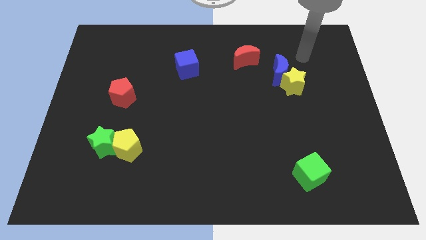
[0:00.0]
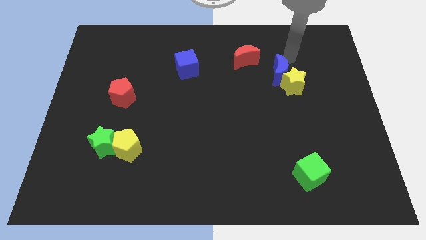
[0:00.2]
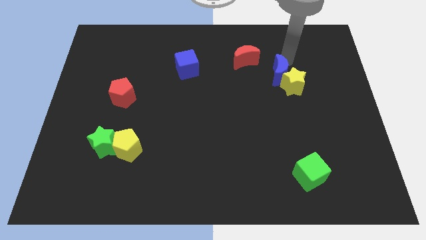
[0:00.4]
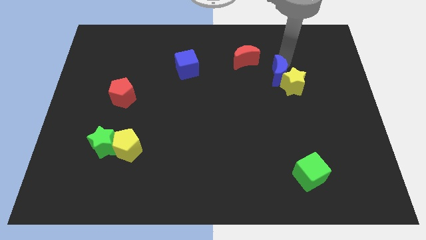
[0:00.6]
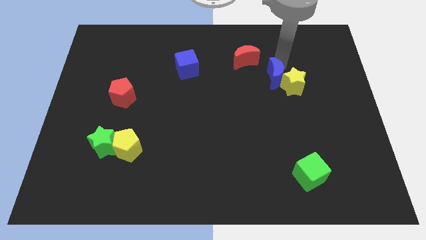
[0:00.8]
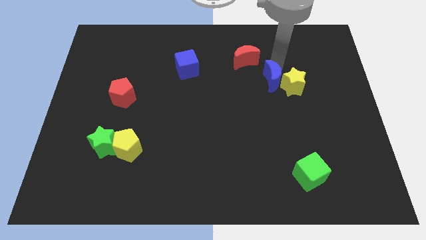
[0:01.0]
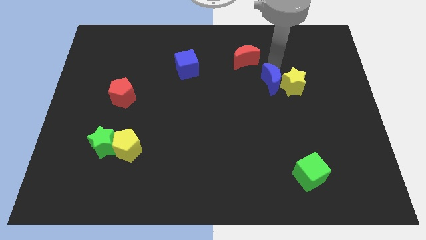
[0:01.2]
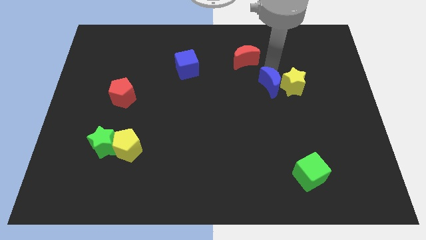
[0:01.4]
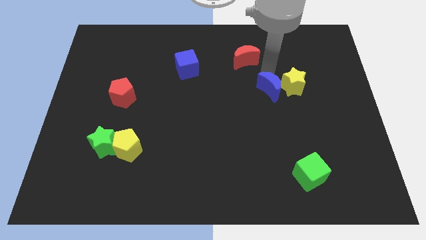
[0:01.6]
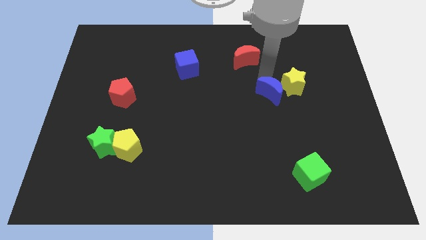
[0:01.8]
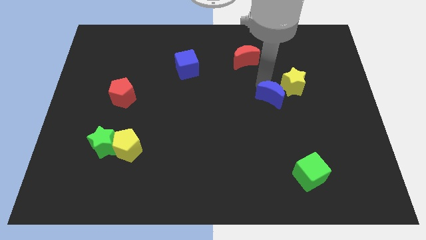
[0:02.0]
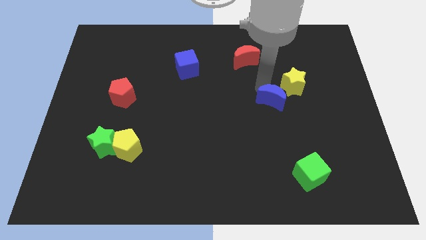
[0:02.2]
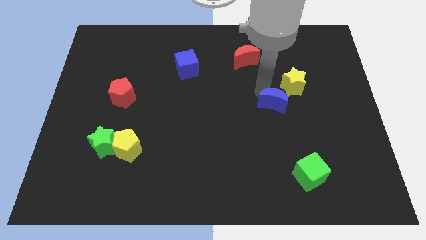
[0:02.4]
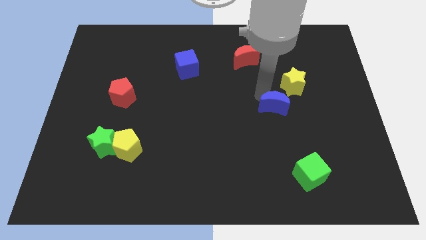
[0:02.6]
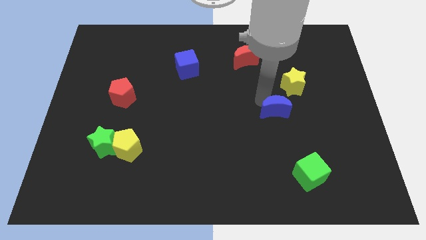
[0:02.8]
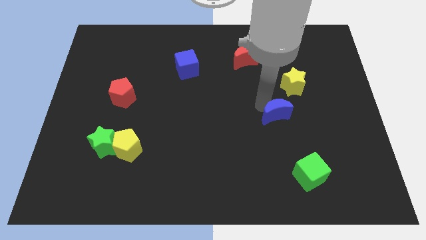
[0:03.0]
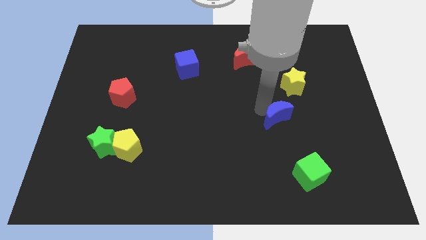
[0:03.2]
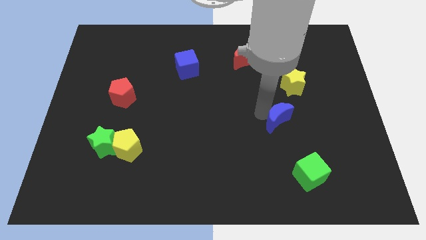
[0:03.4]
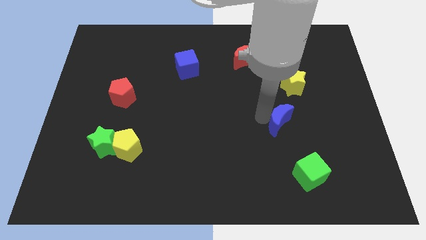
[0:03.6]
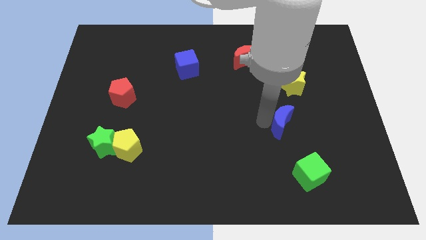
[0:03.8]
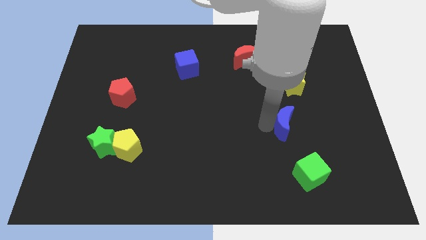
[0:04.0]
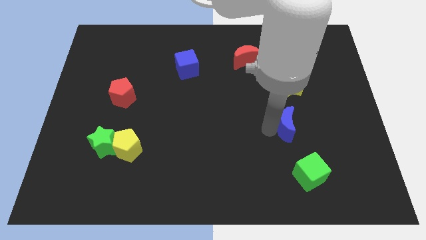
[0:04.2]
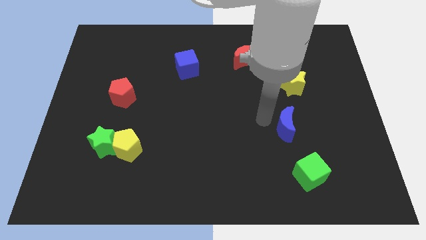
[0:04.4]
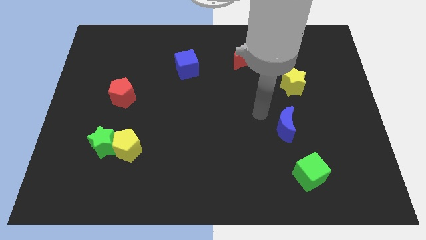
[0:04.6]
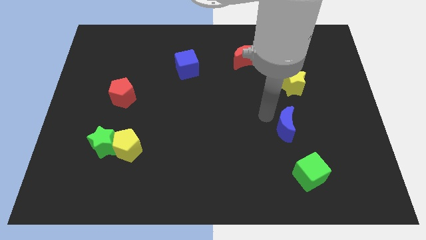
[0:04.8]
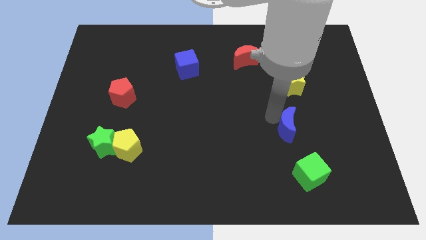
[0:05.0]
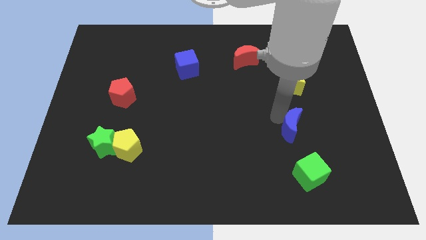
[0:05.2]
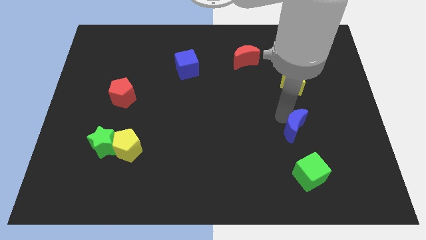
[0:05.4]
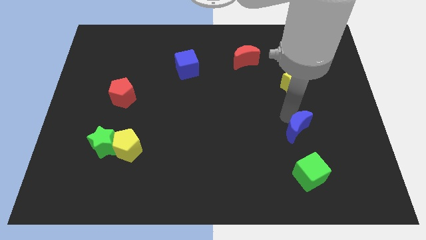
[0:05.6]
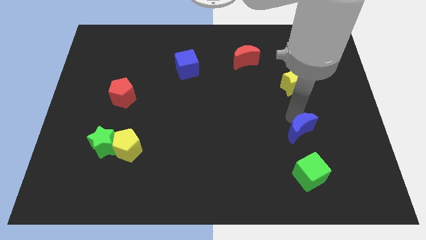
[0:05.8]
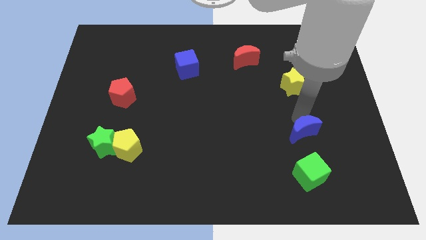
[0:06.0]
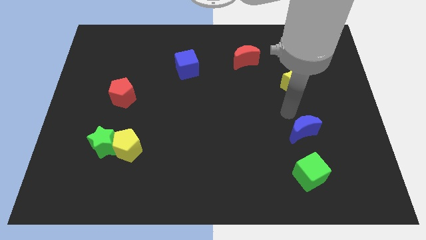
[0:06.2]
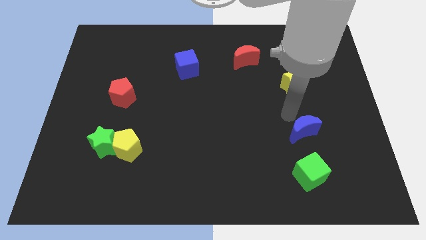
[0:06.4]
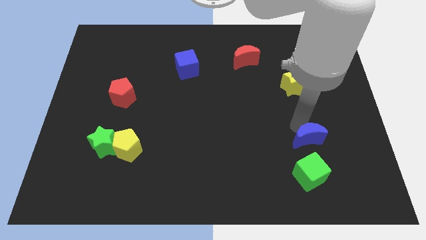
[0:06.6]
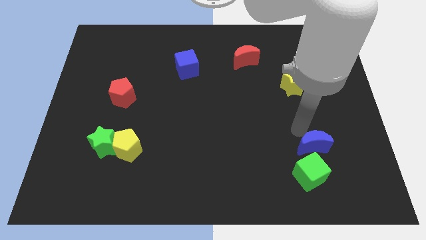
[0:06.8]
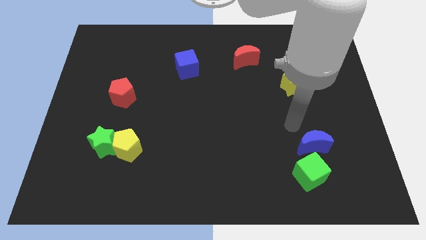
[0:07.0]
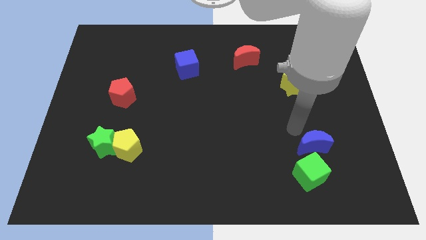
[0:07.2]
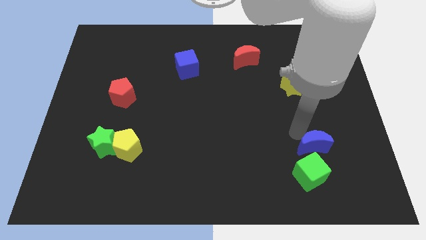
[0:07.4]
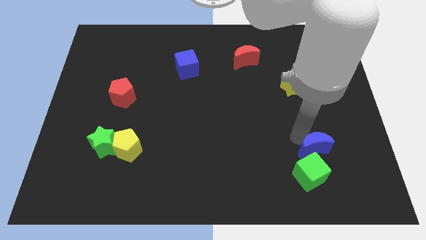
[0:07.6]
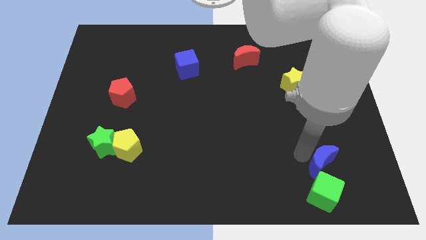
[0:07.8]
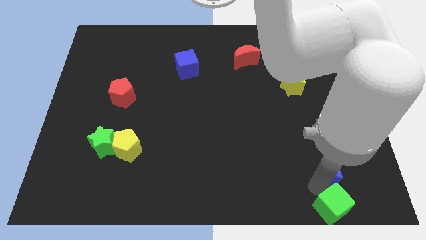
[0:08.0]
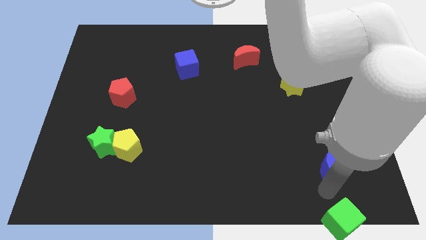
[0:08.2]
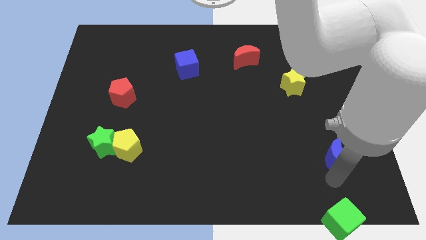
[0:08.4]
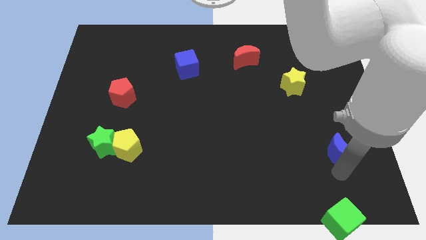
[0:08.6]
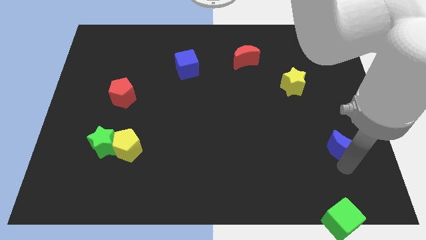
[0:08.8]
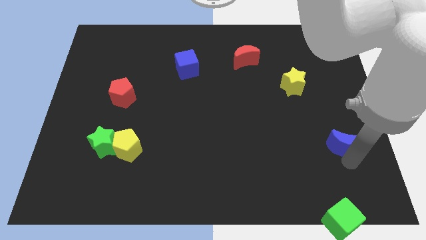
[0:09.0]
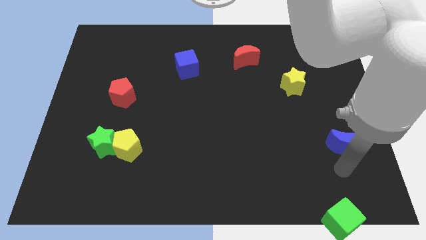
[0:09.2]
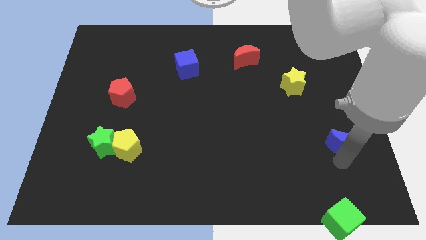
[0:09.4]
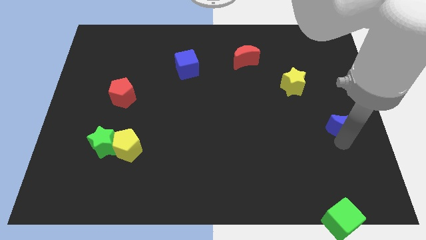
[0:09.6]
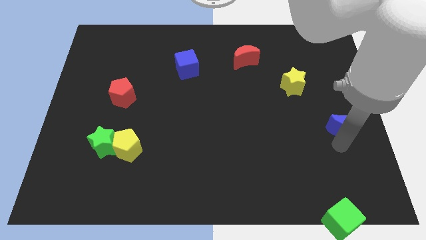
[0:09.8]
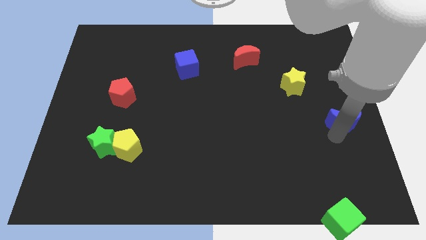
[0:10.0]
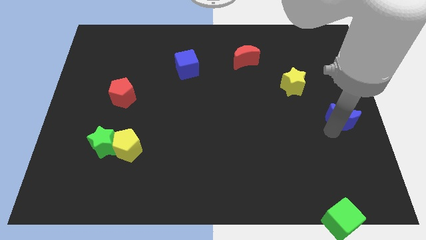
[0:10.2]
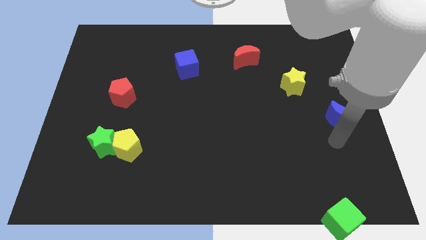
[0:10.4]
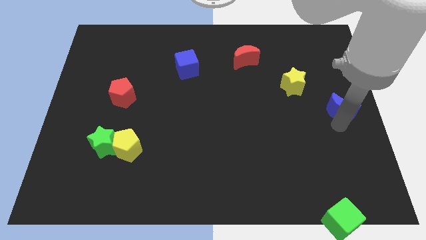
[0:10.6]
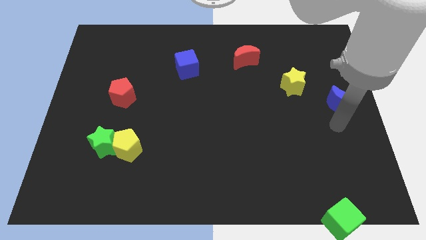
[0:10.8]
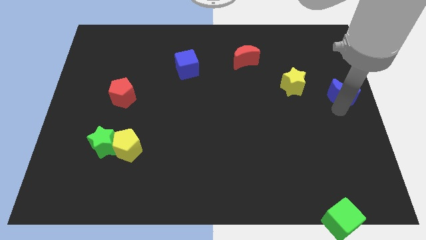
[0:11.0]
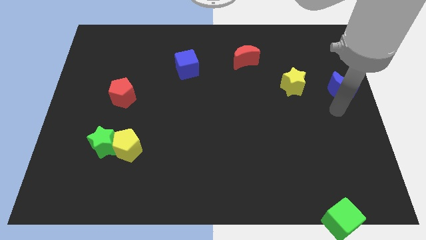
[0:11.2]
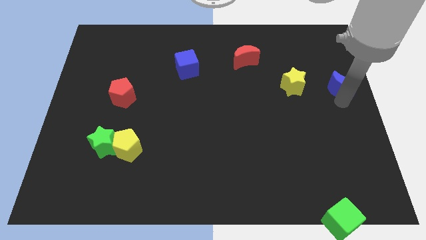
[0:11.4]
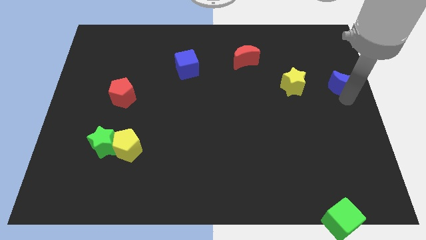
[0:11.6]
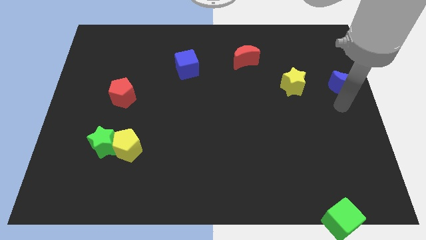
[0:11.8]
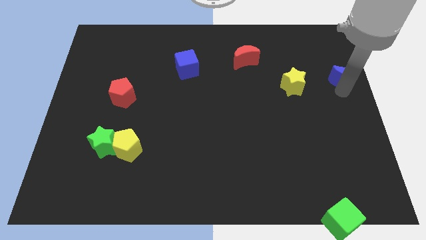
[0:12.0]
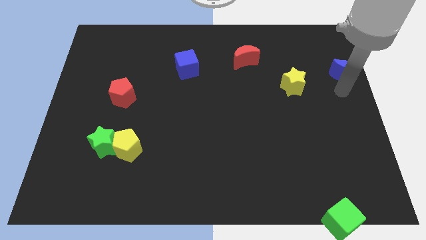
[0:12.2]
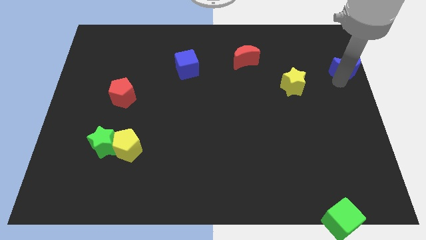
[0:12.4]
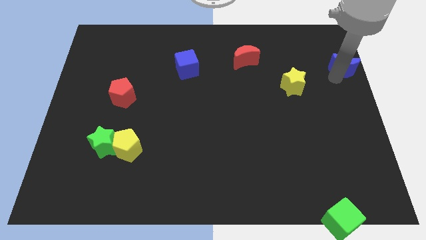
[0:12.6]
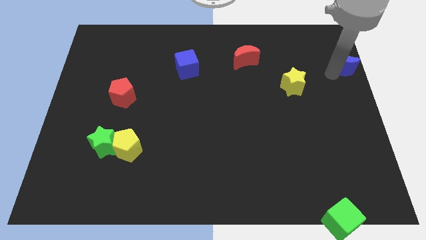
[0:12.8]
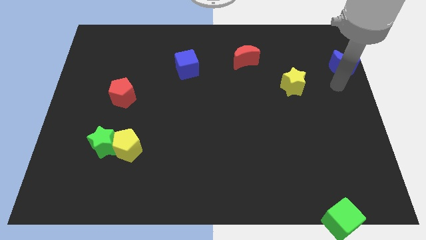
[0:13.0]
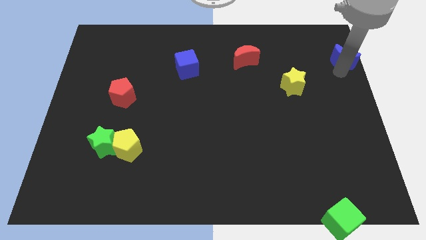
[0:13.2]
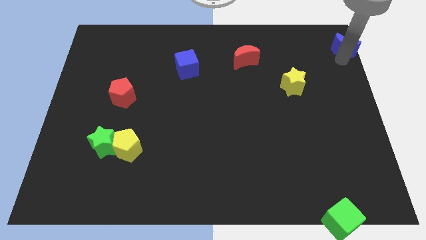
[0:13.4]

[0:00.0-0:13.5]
move the blue moon to the top right

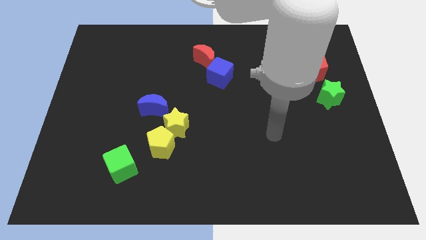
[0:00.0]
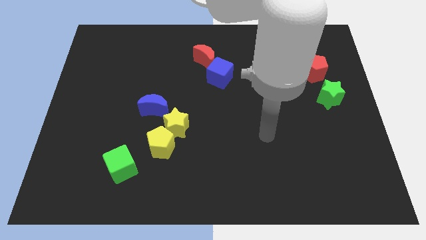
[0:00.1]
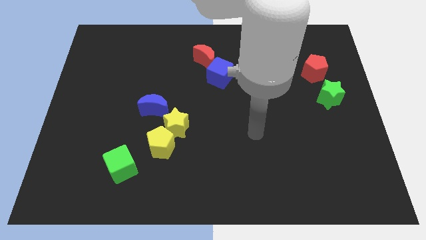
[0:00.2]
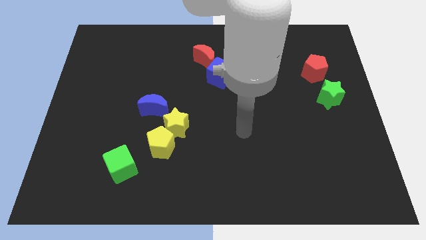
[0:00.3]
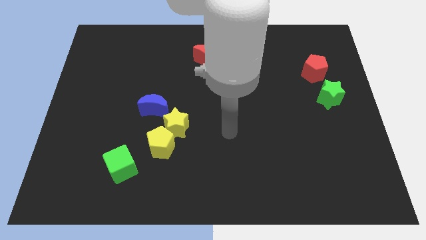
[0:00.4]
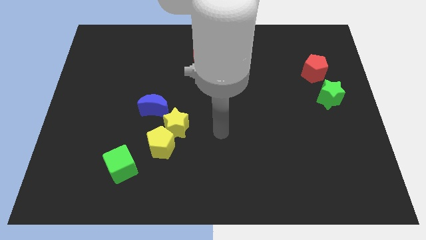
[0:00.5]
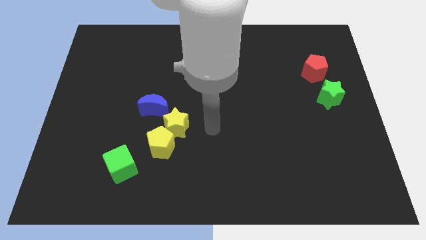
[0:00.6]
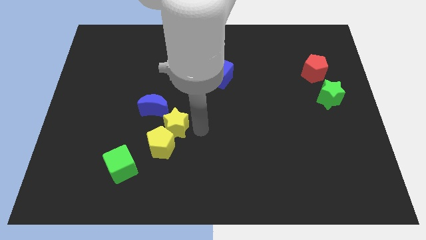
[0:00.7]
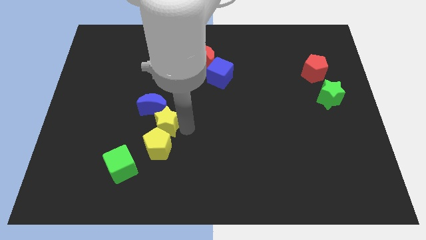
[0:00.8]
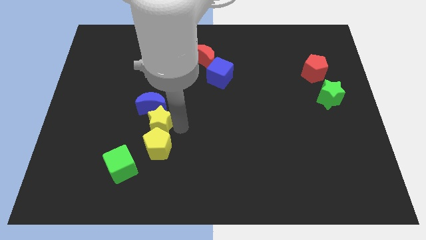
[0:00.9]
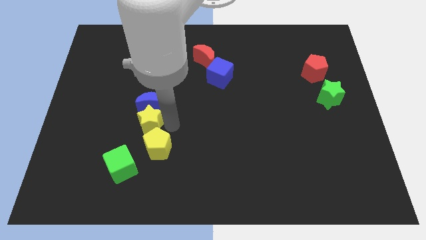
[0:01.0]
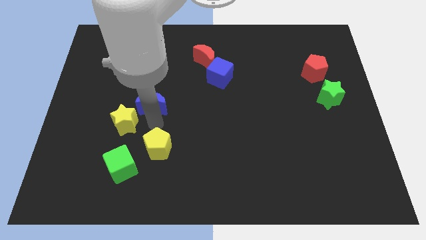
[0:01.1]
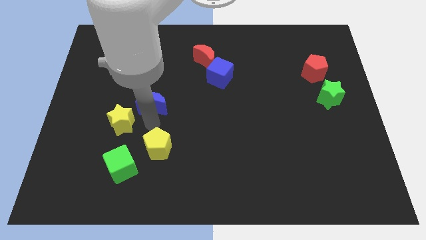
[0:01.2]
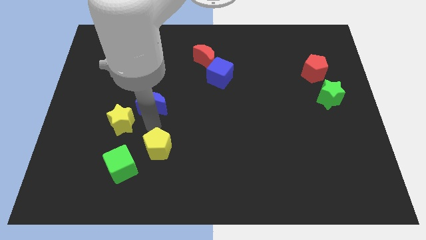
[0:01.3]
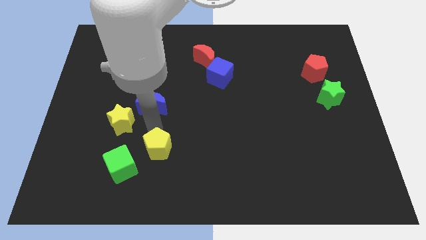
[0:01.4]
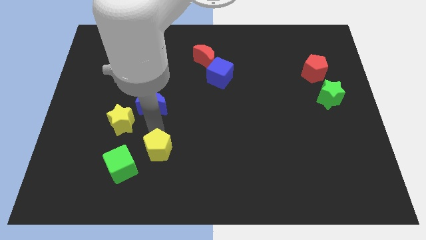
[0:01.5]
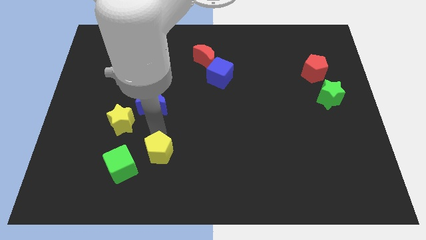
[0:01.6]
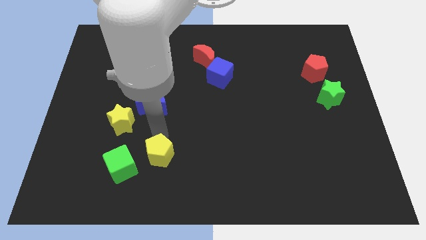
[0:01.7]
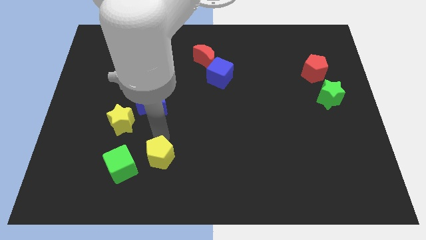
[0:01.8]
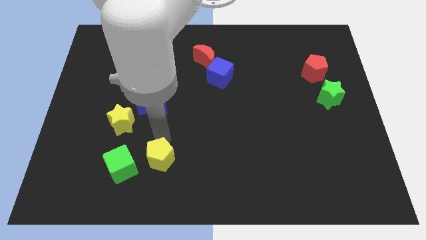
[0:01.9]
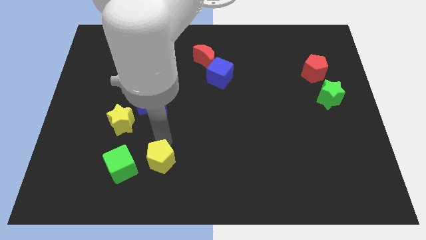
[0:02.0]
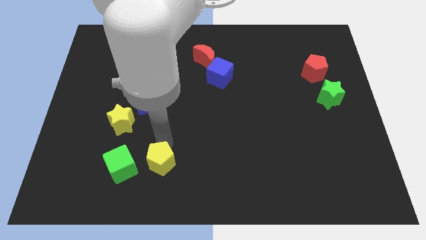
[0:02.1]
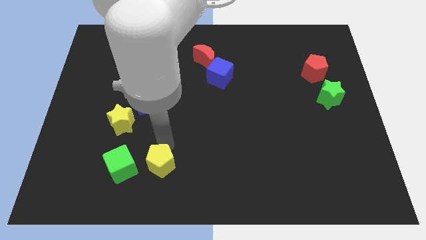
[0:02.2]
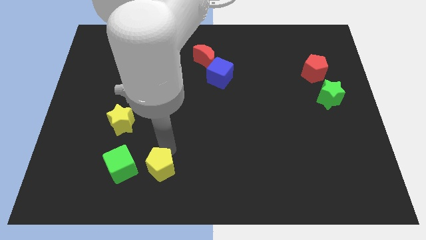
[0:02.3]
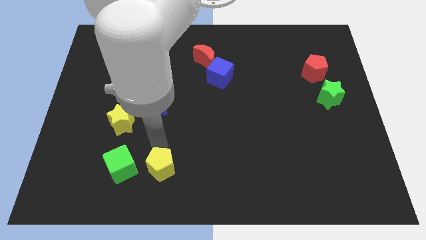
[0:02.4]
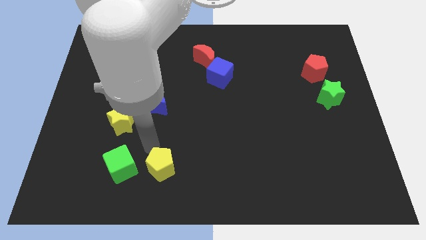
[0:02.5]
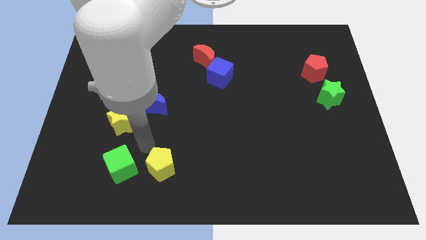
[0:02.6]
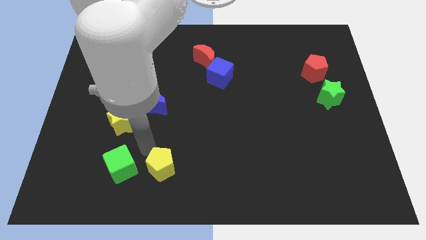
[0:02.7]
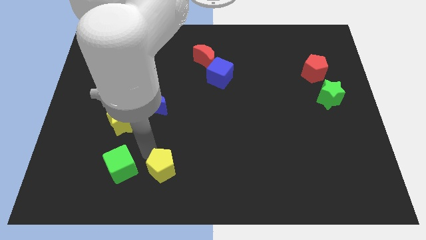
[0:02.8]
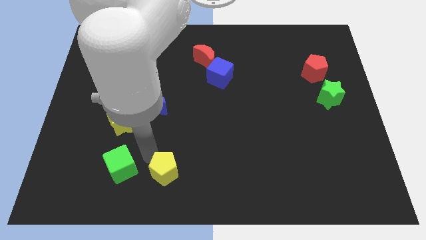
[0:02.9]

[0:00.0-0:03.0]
move the yellow pentagon to the bottom side
